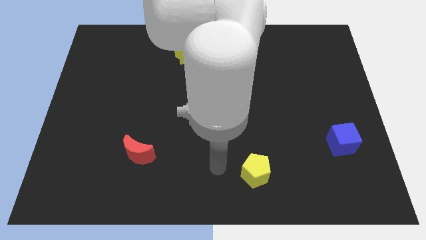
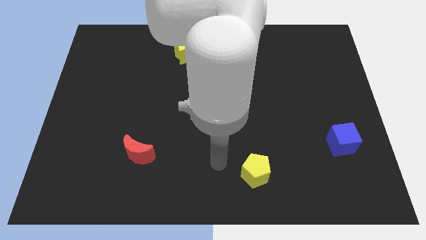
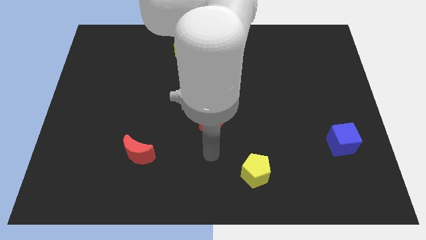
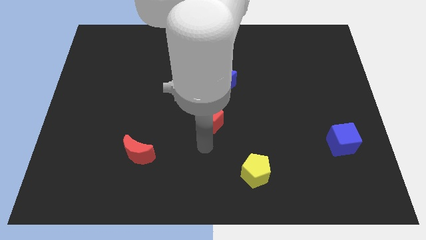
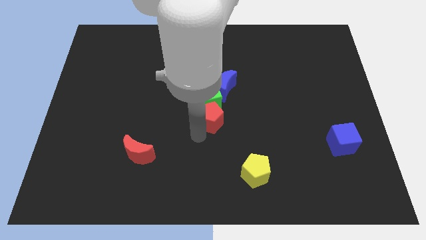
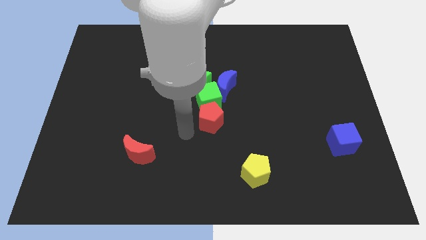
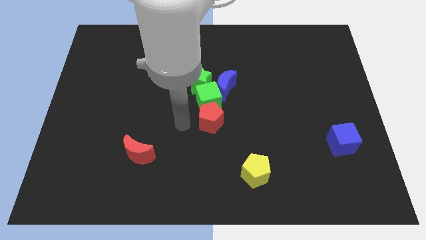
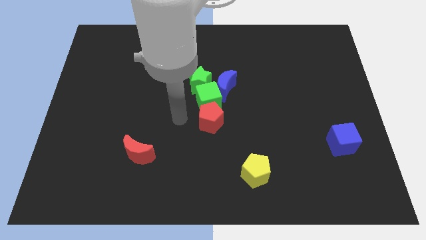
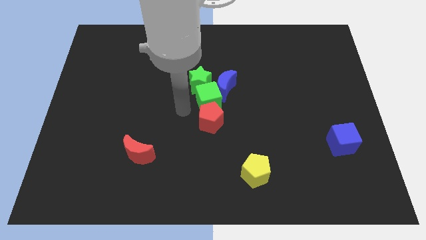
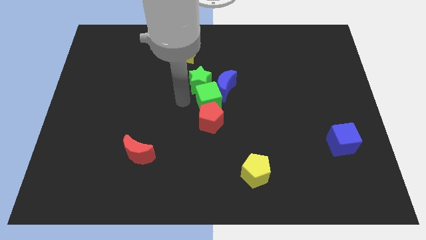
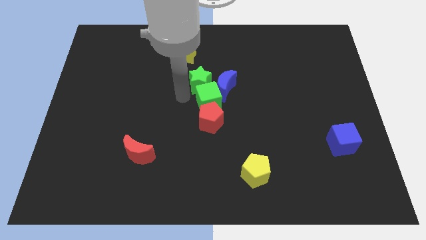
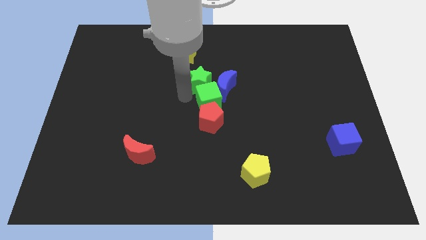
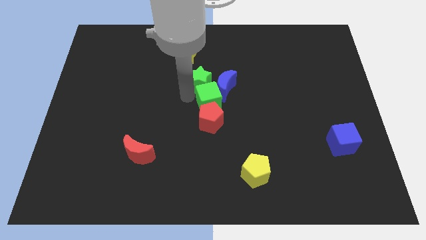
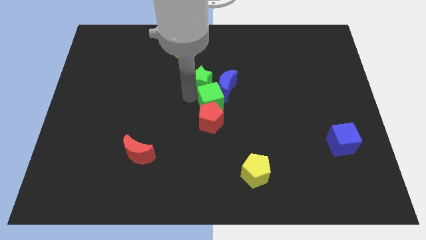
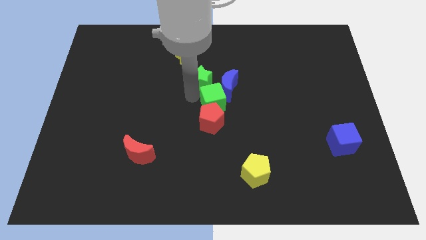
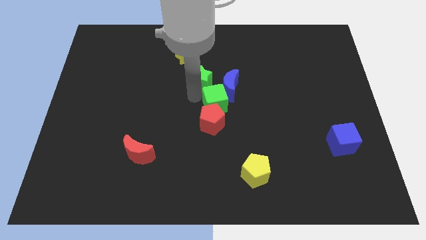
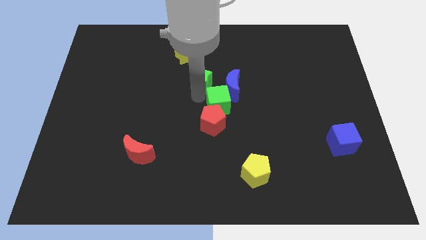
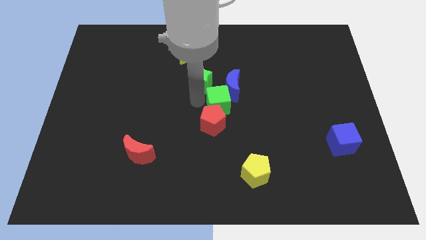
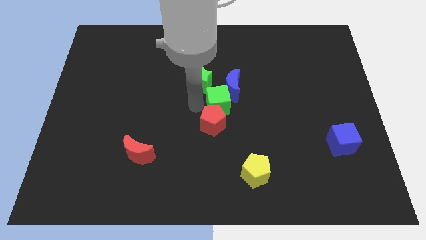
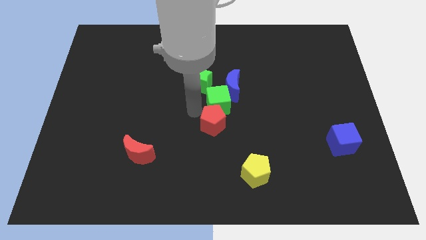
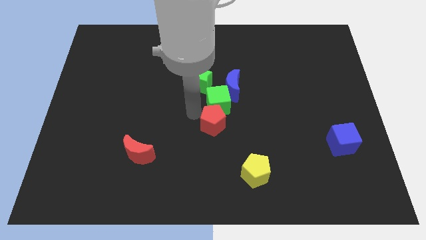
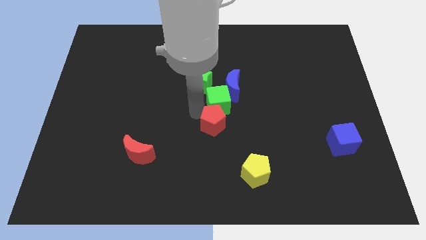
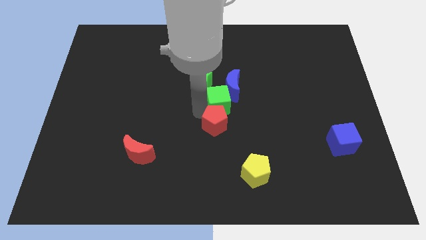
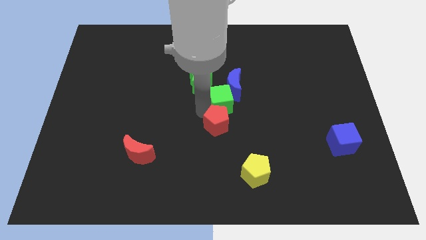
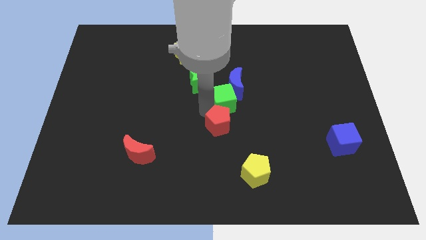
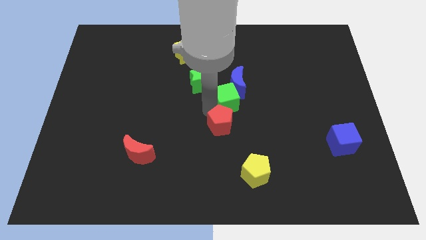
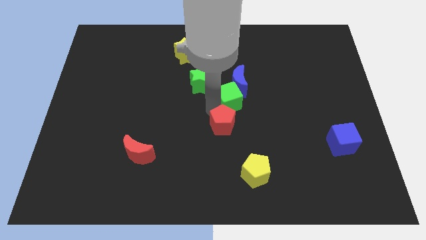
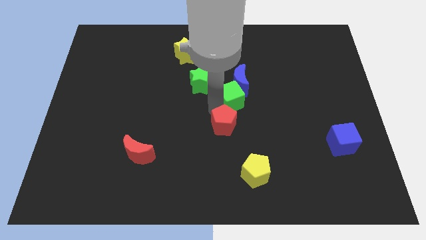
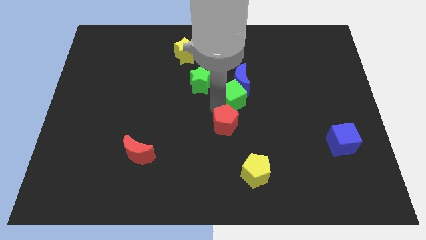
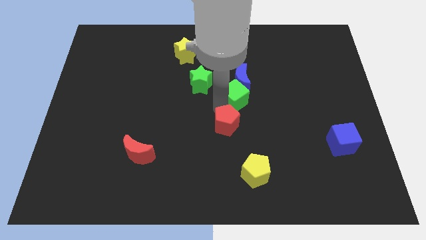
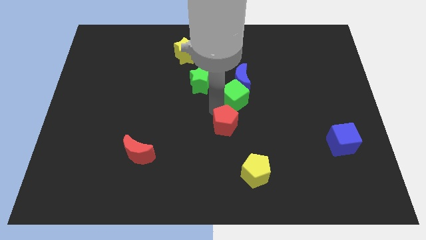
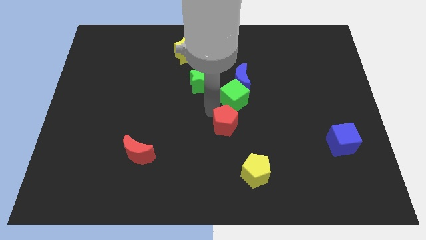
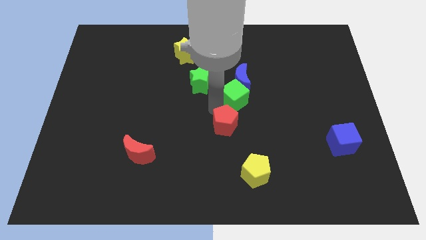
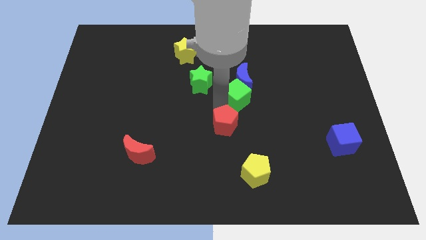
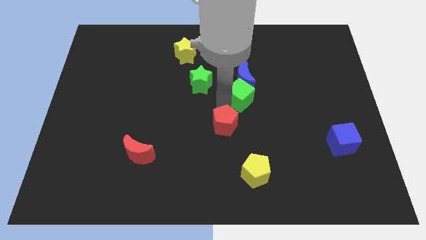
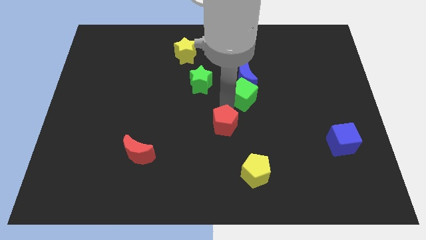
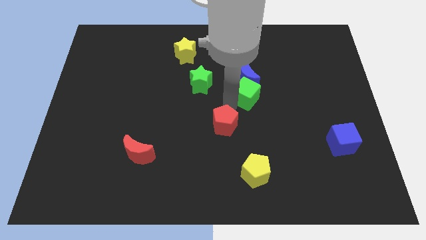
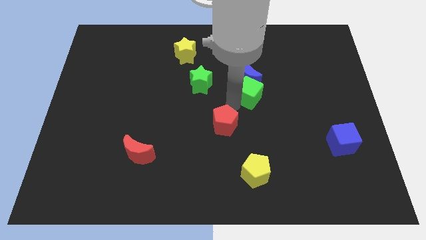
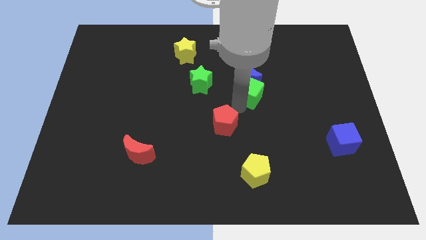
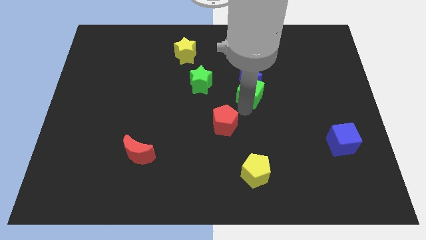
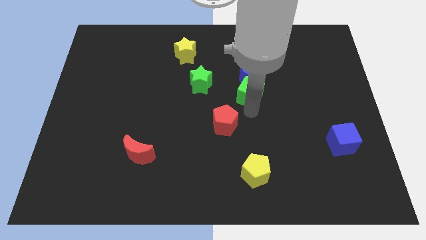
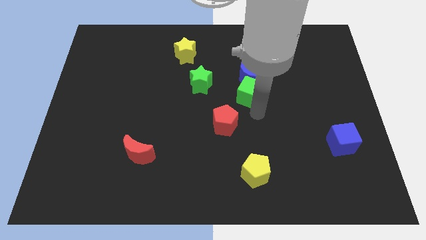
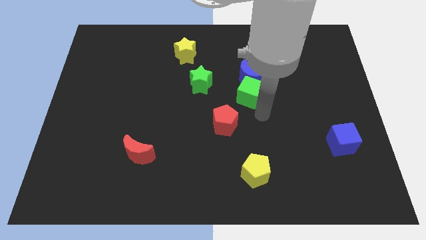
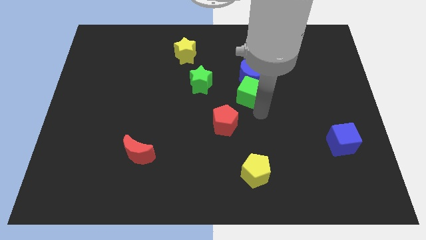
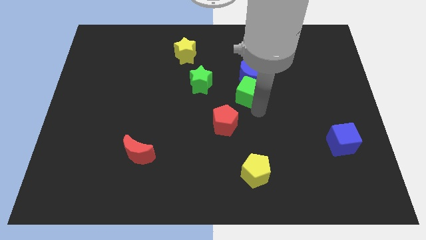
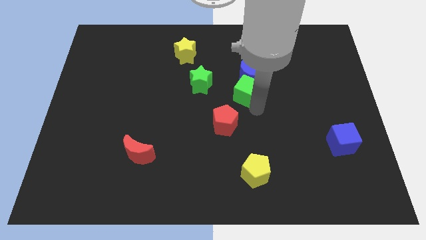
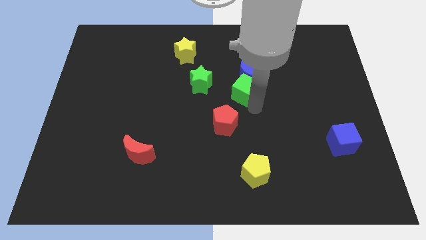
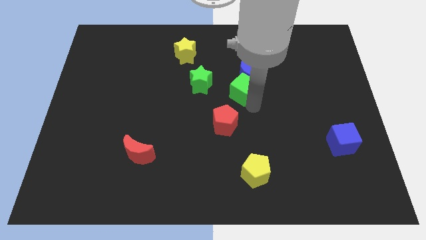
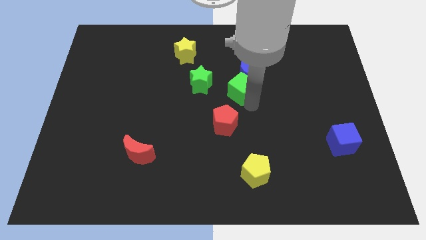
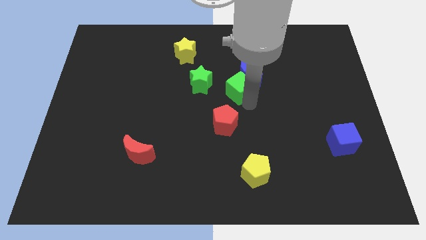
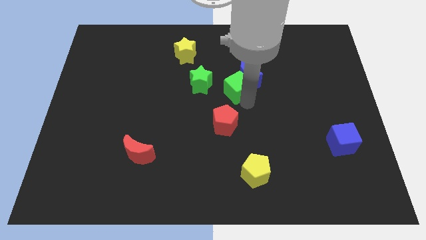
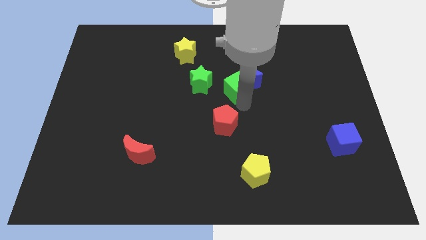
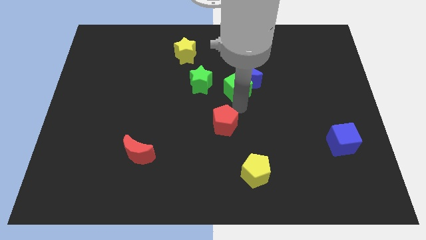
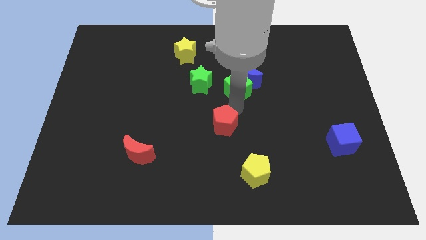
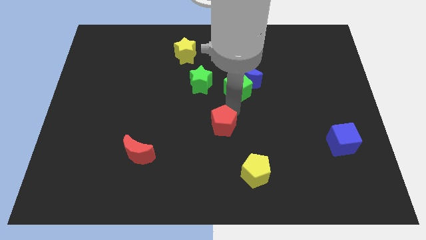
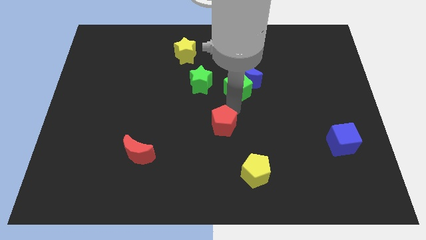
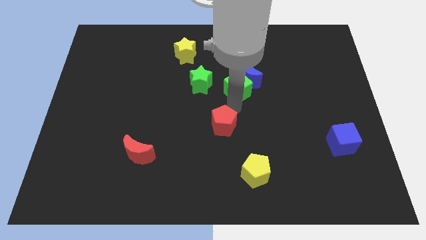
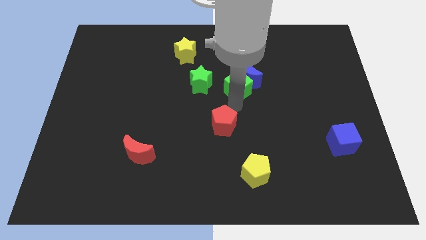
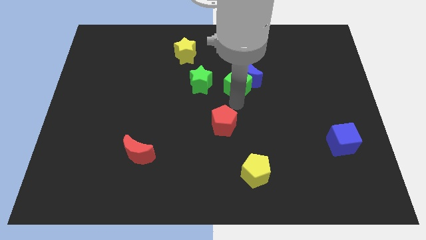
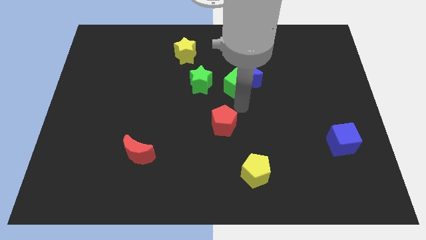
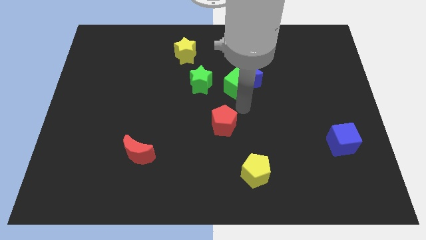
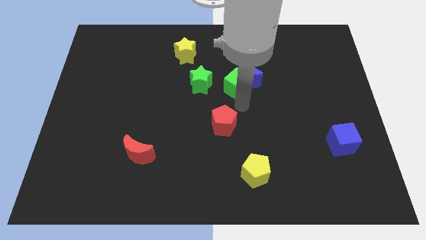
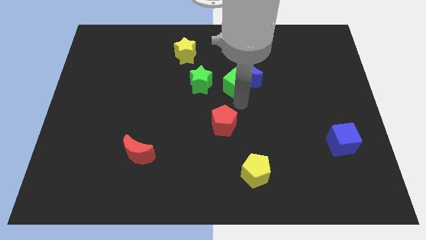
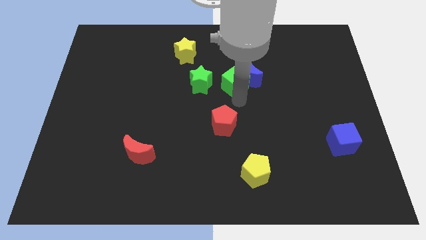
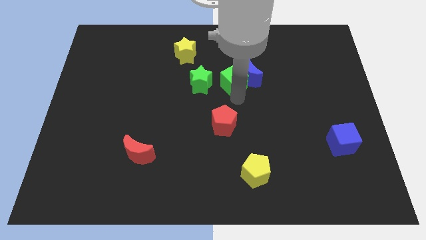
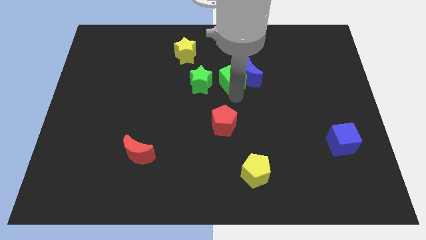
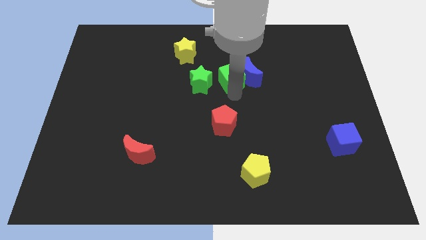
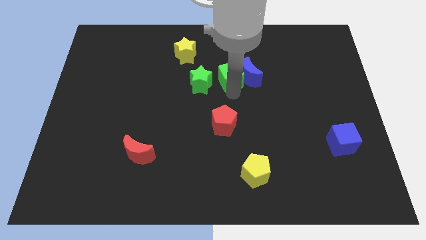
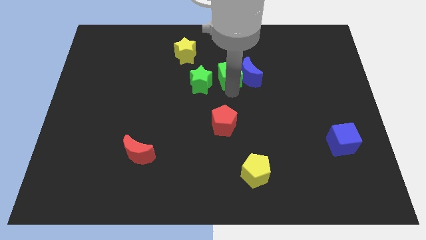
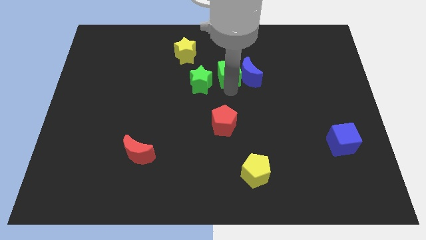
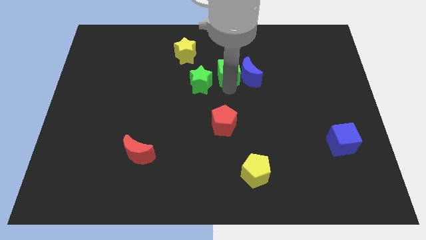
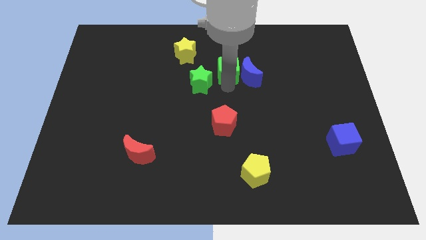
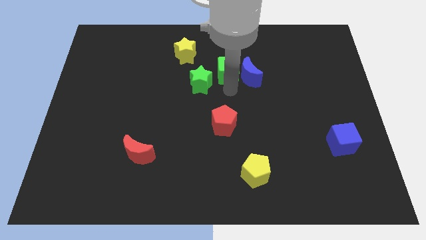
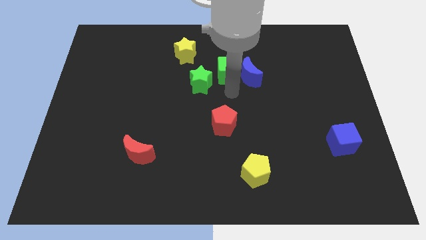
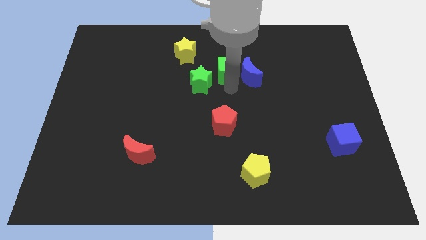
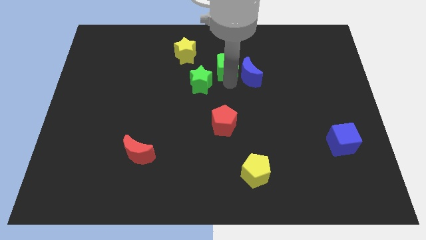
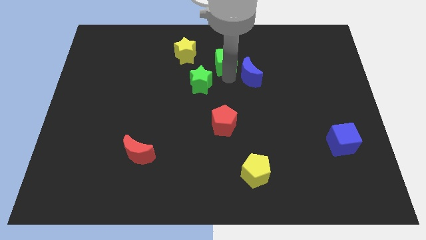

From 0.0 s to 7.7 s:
slide the green cube to the right of the yellow star

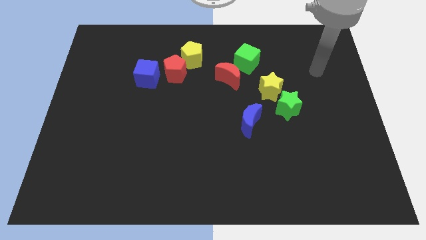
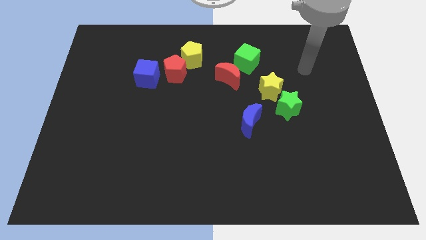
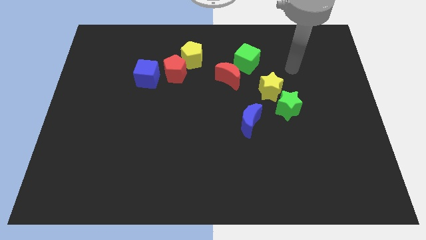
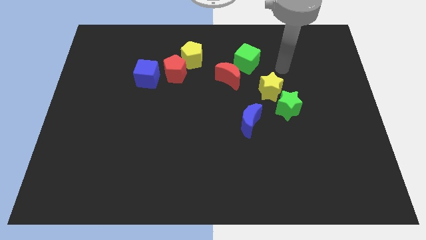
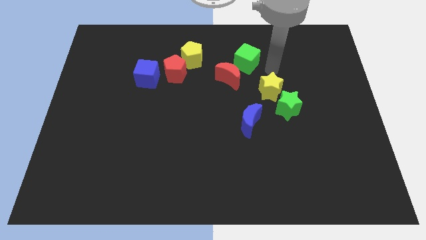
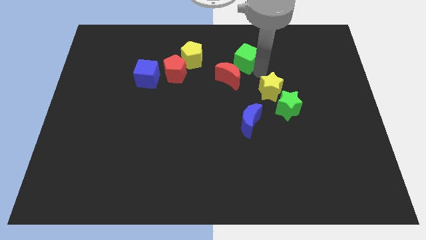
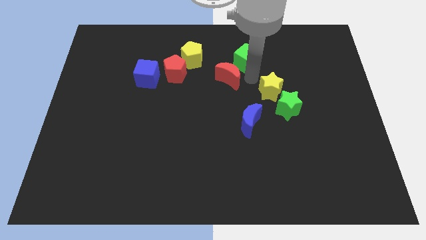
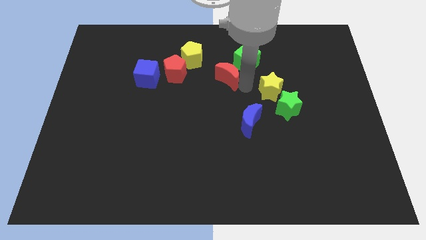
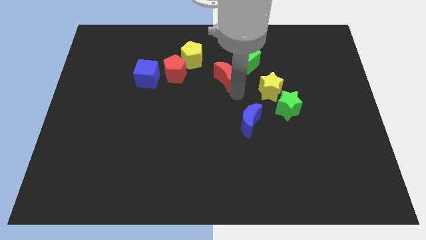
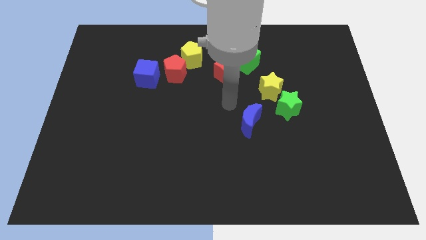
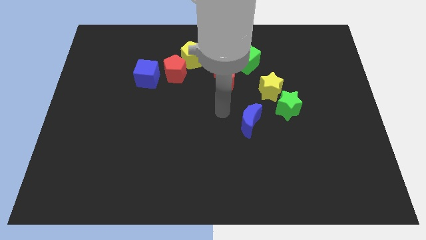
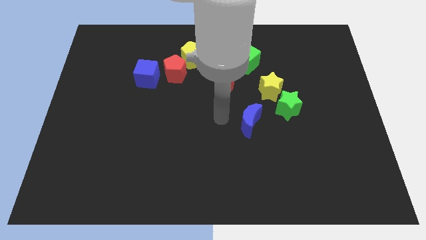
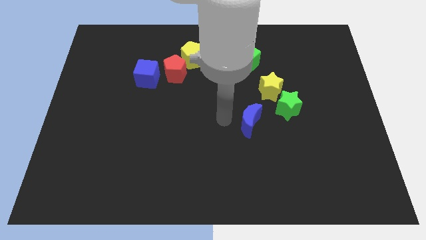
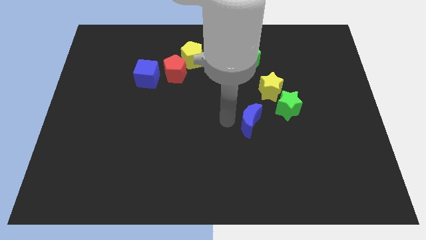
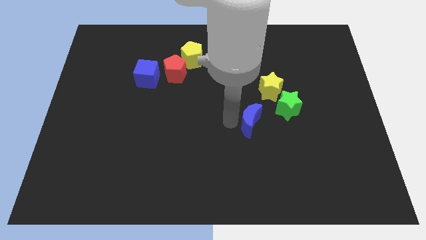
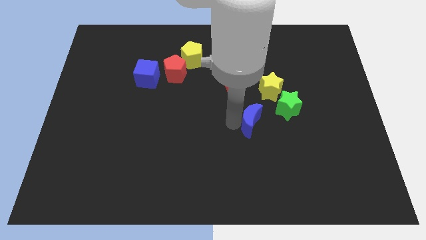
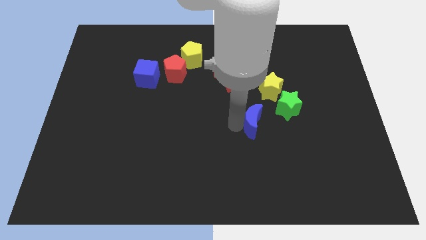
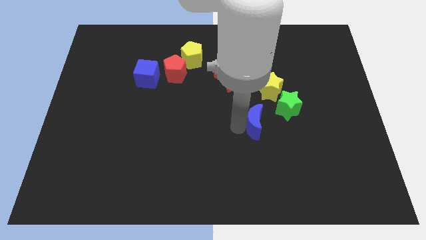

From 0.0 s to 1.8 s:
push the blue moon to the bottom side of the yellow star
